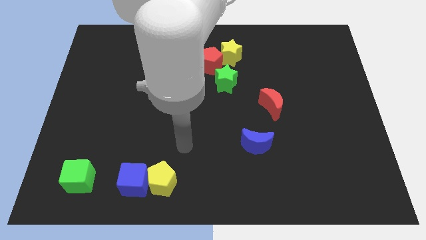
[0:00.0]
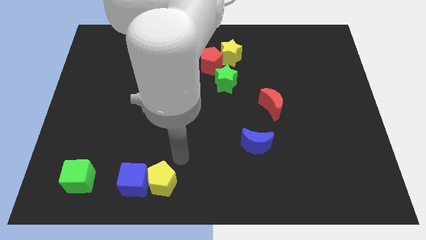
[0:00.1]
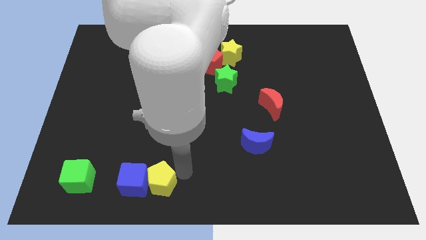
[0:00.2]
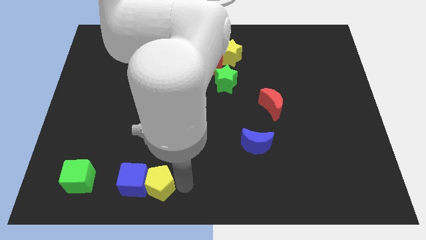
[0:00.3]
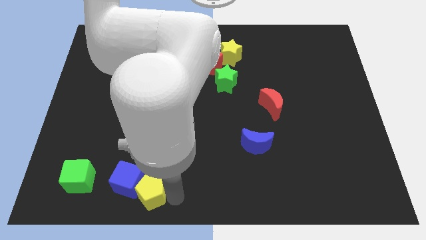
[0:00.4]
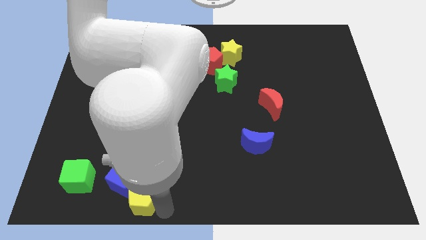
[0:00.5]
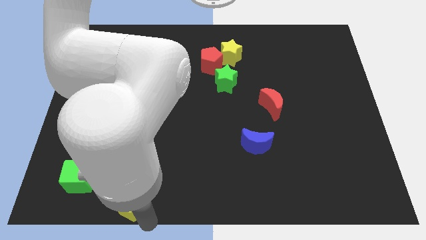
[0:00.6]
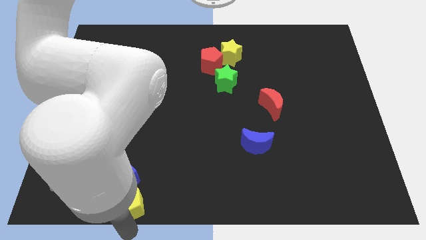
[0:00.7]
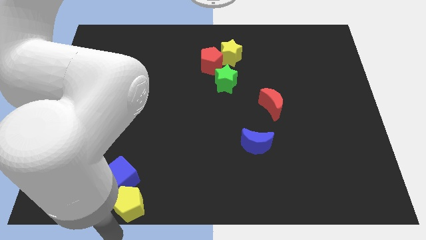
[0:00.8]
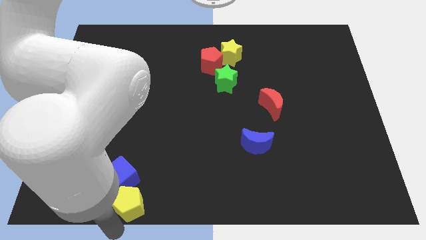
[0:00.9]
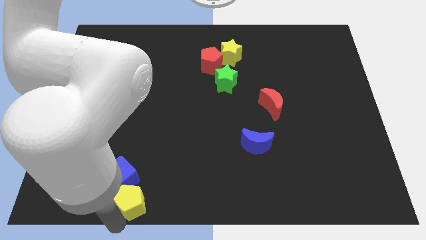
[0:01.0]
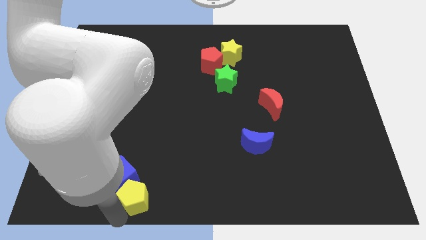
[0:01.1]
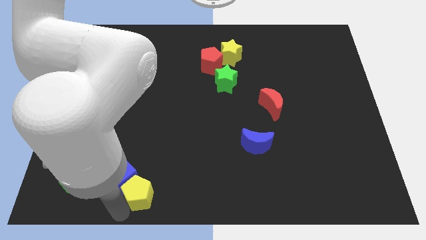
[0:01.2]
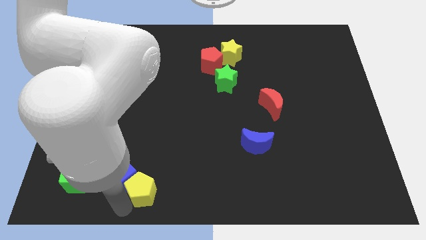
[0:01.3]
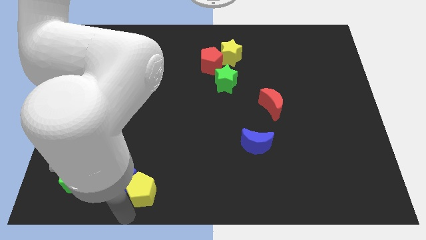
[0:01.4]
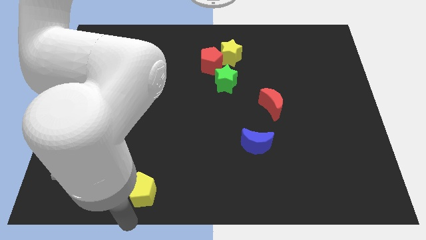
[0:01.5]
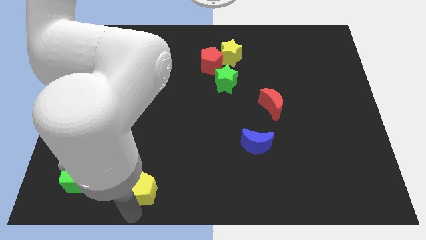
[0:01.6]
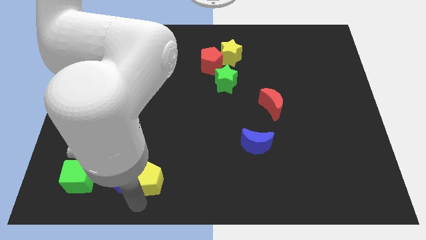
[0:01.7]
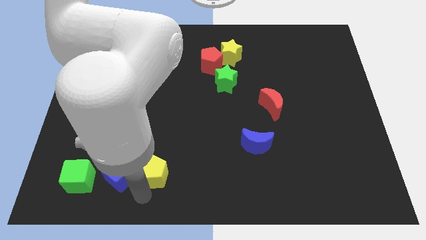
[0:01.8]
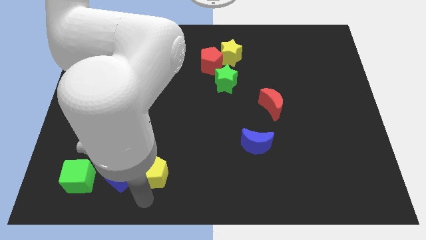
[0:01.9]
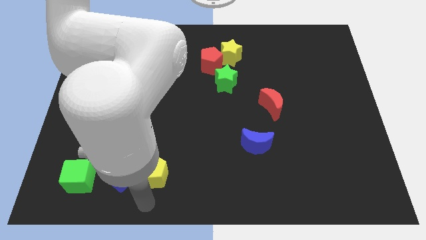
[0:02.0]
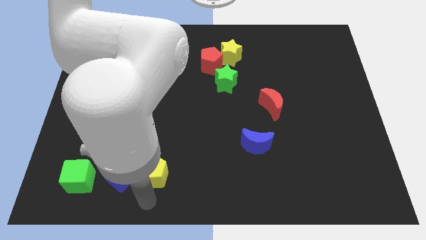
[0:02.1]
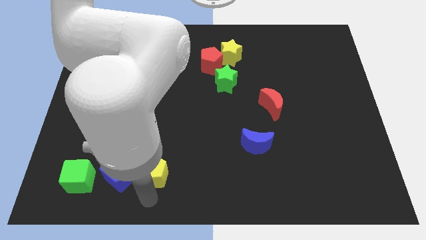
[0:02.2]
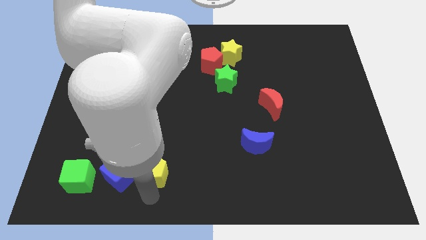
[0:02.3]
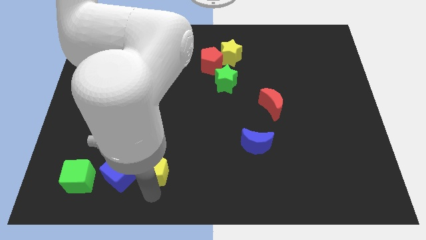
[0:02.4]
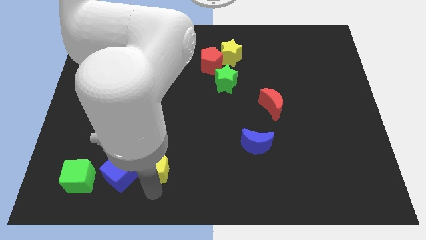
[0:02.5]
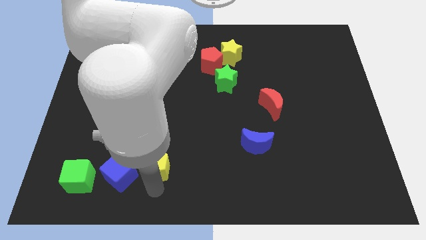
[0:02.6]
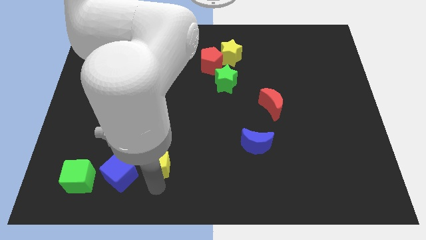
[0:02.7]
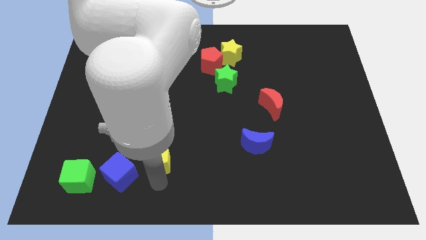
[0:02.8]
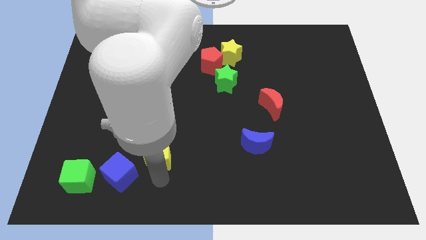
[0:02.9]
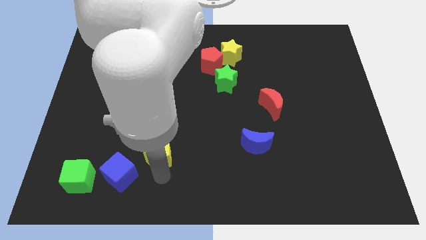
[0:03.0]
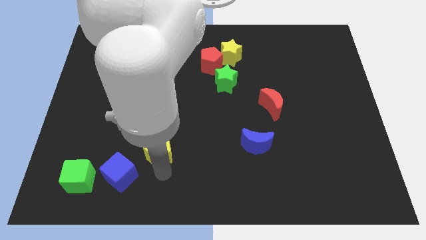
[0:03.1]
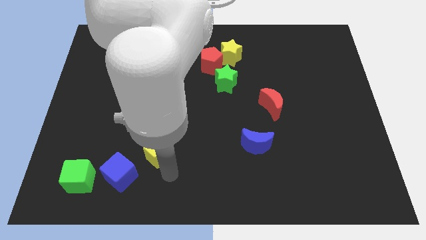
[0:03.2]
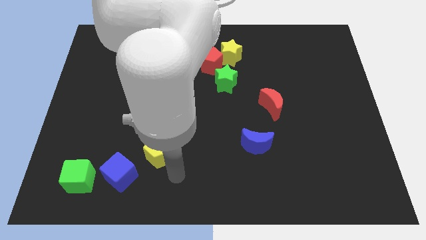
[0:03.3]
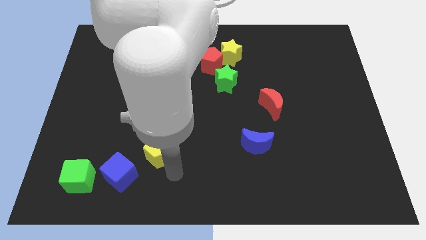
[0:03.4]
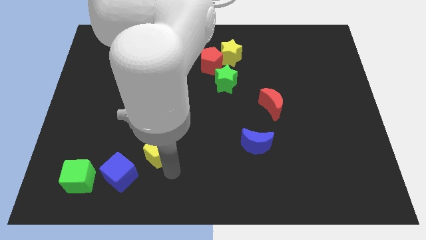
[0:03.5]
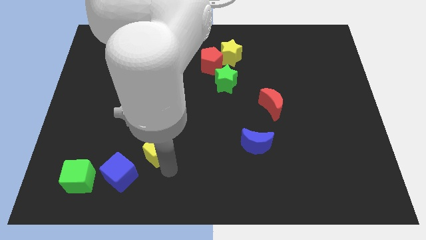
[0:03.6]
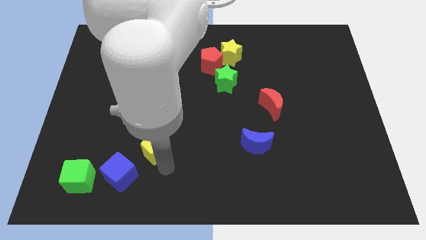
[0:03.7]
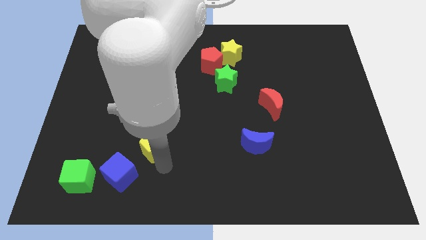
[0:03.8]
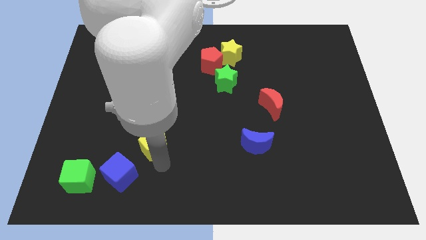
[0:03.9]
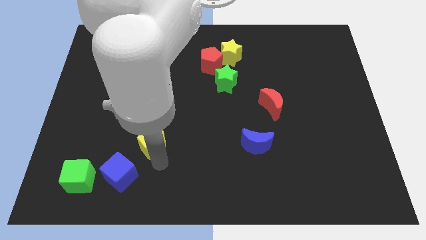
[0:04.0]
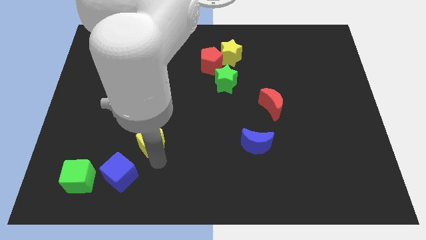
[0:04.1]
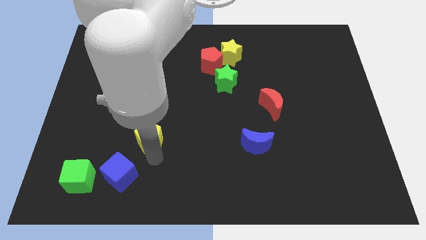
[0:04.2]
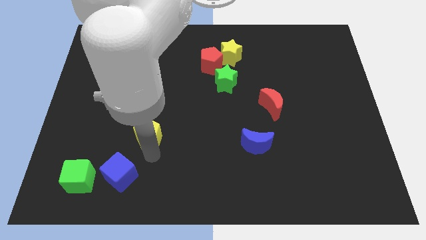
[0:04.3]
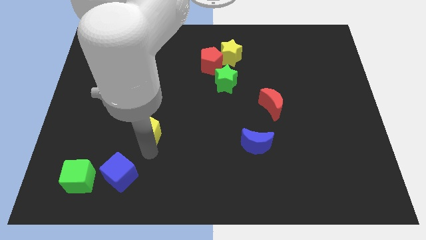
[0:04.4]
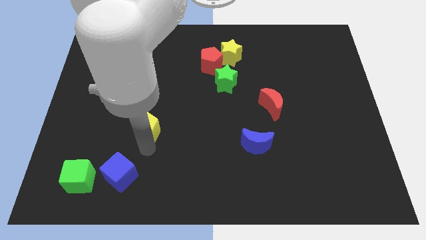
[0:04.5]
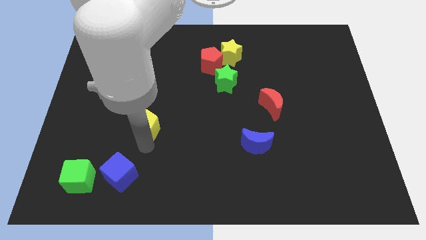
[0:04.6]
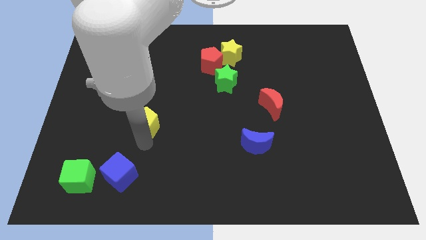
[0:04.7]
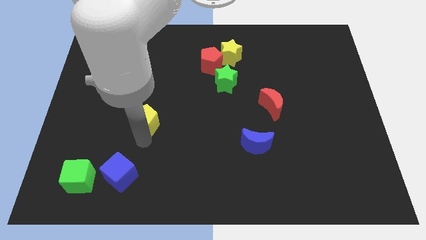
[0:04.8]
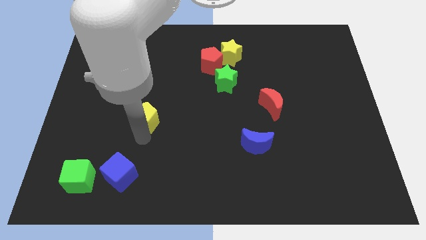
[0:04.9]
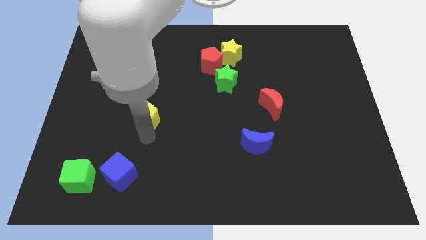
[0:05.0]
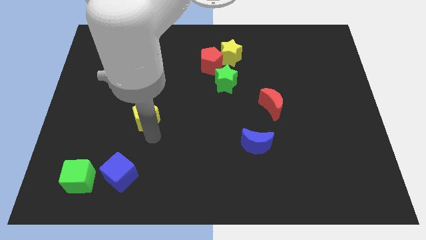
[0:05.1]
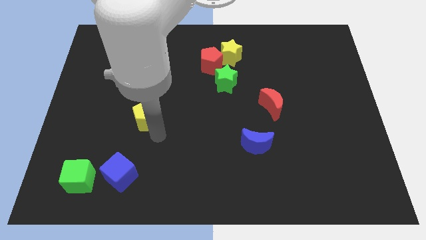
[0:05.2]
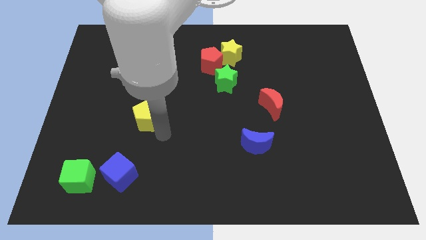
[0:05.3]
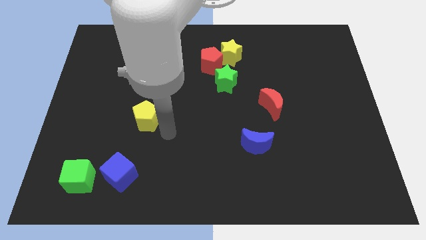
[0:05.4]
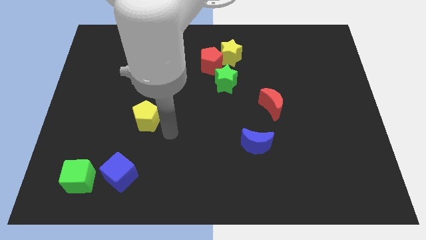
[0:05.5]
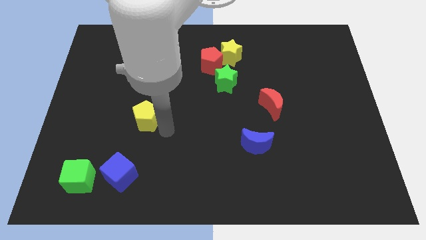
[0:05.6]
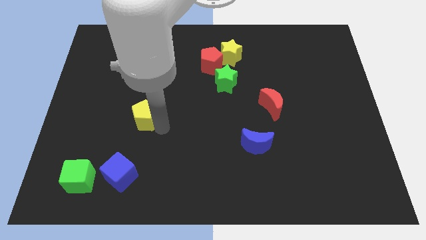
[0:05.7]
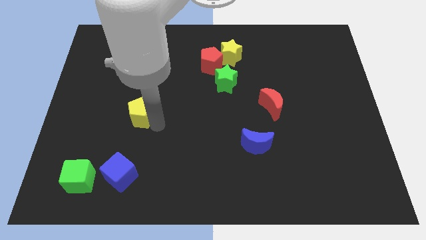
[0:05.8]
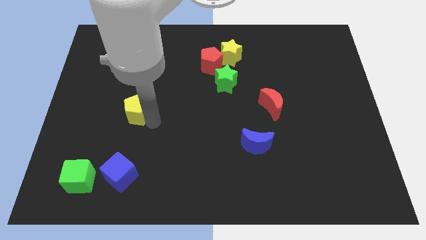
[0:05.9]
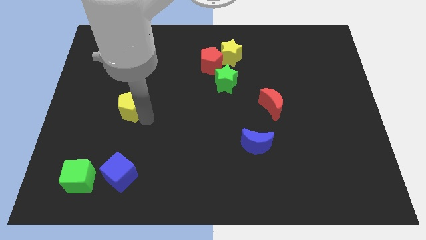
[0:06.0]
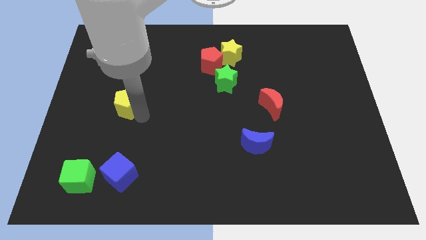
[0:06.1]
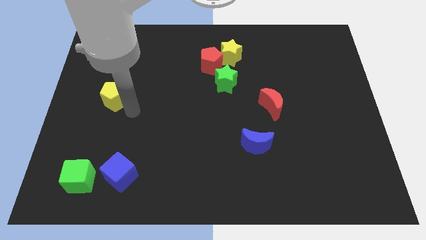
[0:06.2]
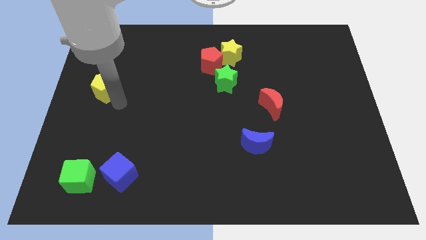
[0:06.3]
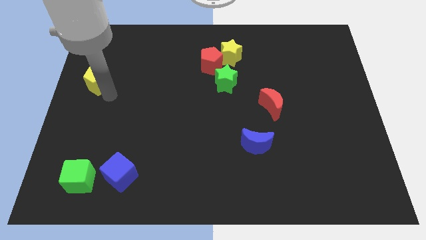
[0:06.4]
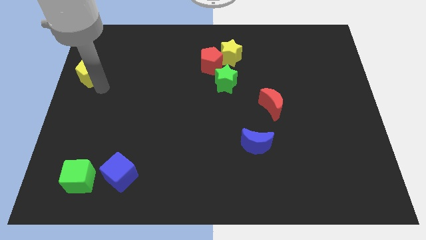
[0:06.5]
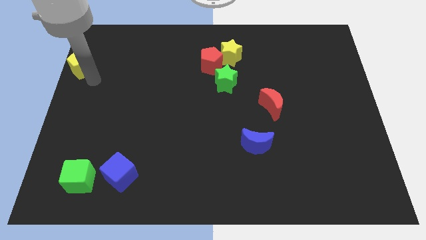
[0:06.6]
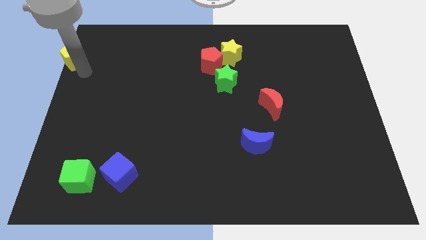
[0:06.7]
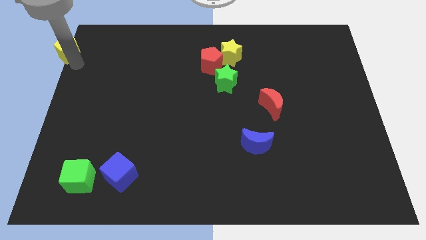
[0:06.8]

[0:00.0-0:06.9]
put the yellow pentagon to the upper left corner
